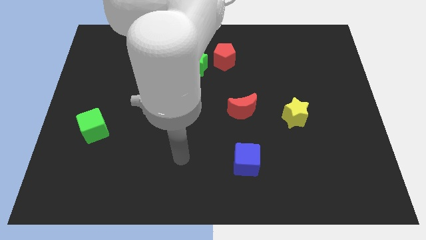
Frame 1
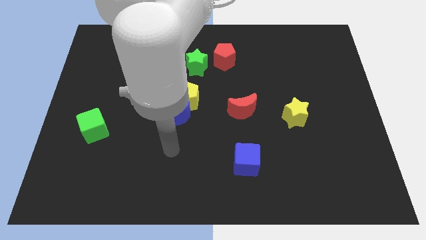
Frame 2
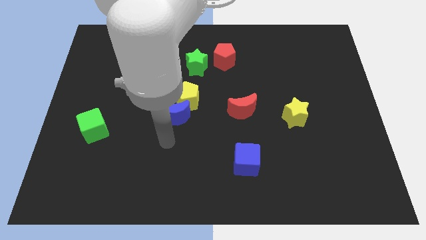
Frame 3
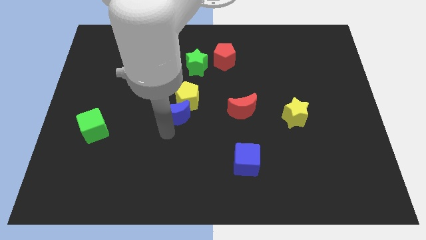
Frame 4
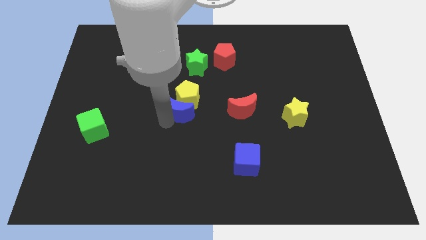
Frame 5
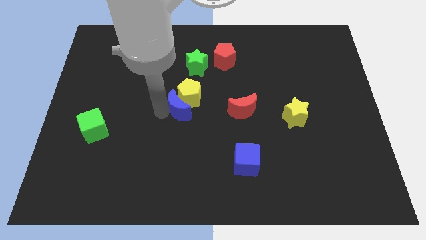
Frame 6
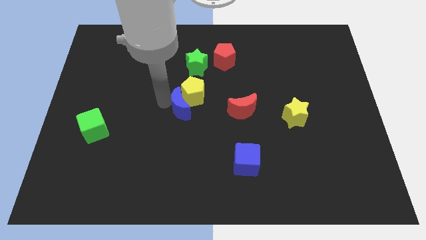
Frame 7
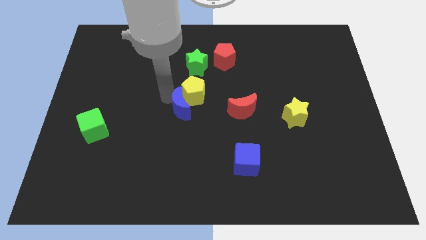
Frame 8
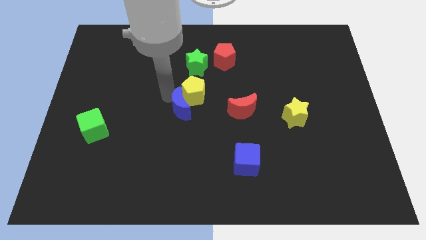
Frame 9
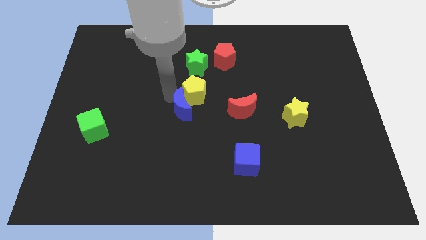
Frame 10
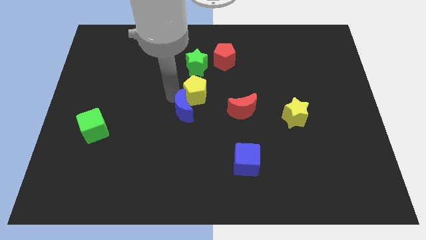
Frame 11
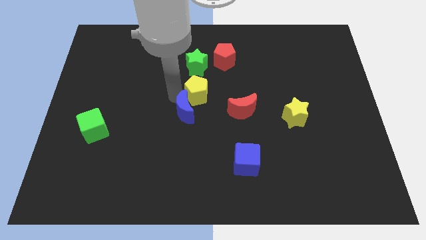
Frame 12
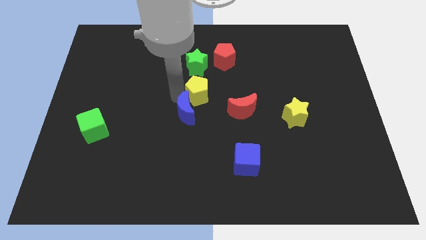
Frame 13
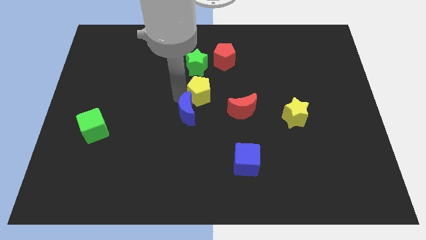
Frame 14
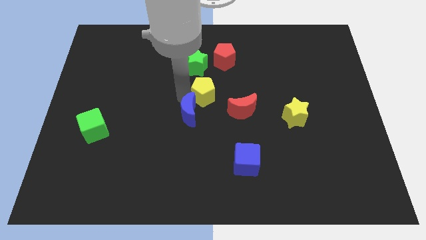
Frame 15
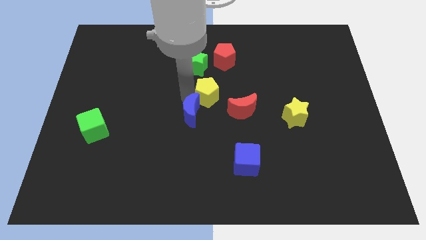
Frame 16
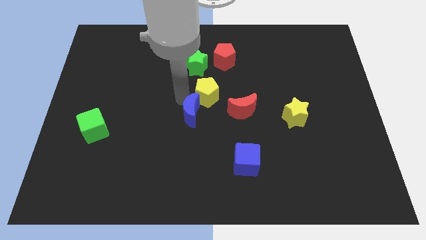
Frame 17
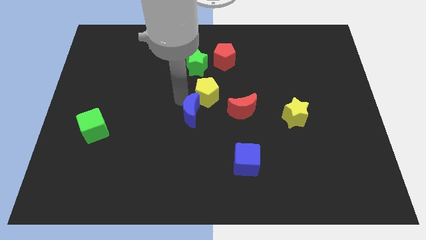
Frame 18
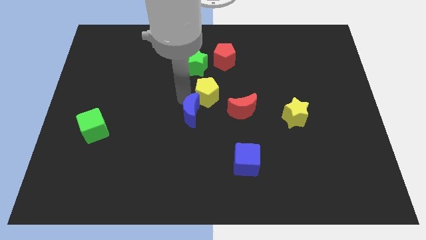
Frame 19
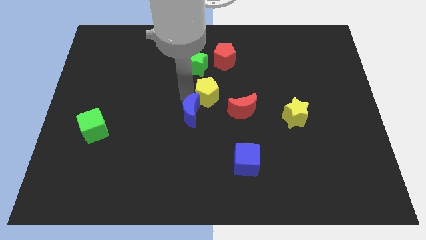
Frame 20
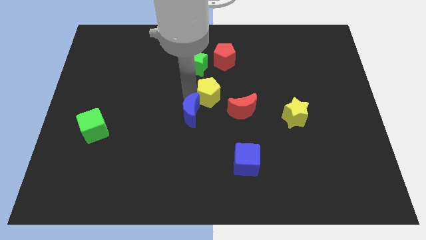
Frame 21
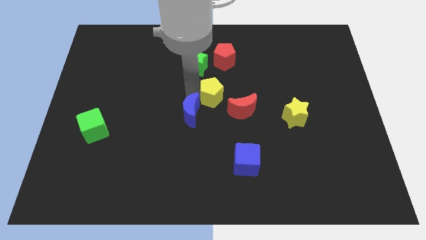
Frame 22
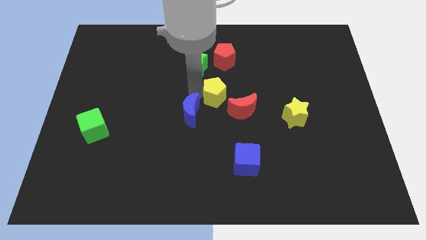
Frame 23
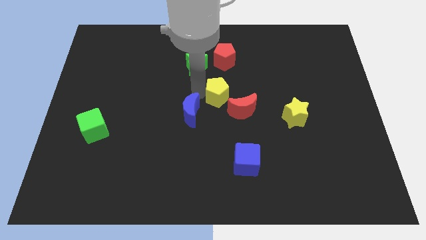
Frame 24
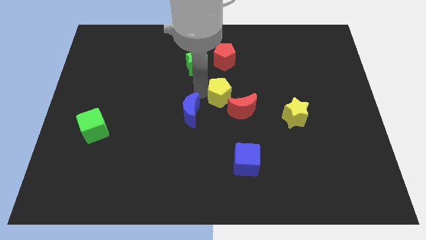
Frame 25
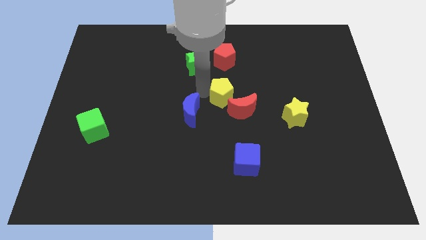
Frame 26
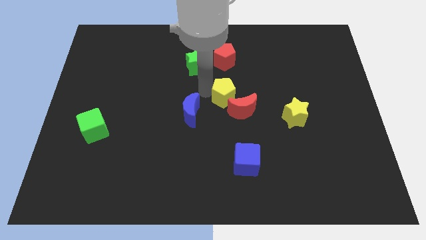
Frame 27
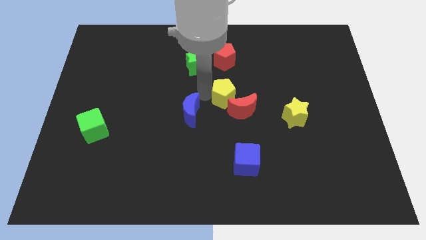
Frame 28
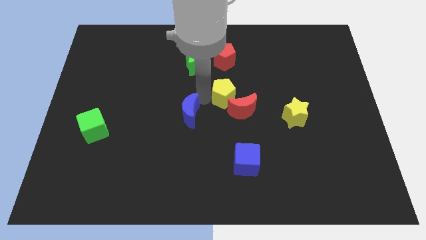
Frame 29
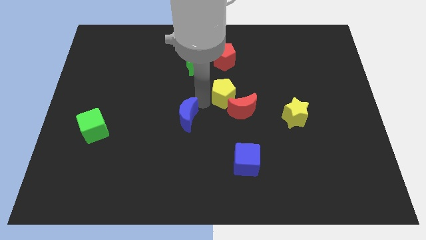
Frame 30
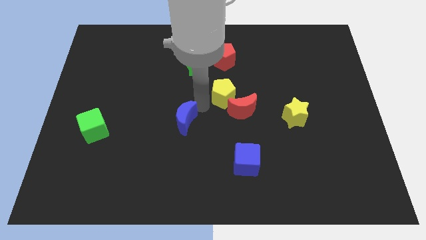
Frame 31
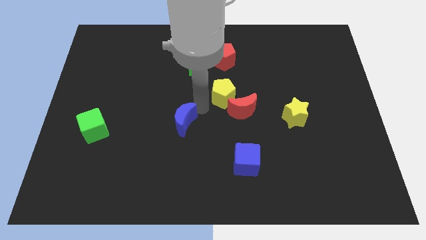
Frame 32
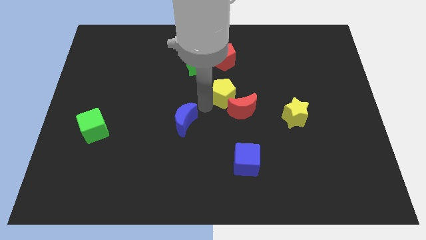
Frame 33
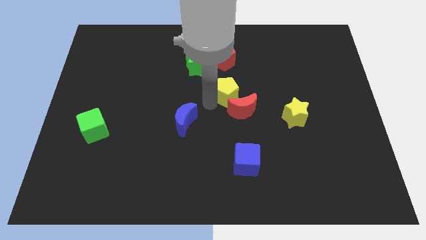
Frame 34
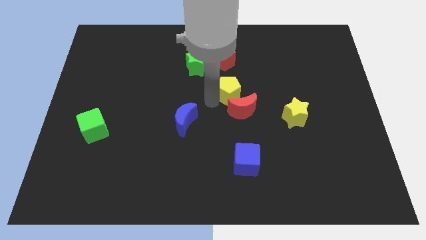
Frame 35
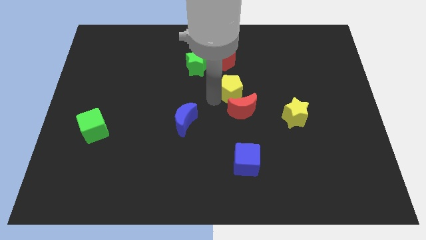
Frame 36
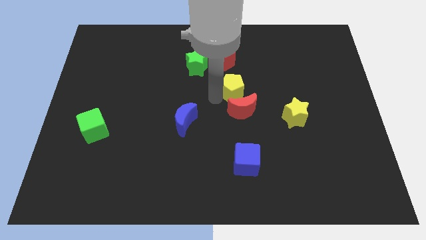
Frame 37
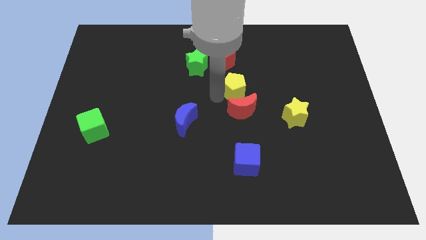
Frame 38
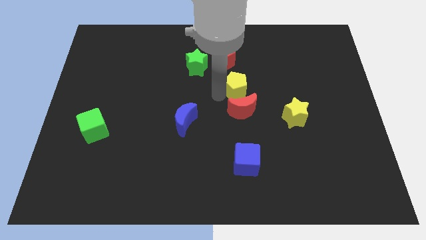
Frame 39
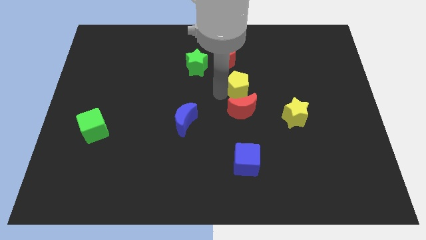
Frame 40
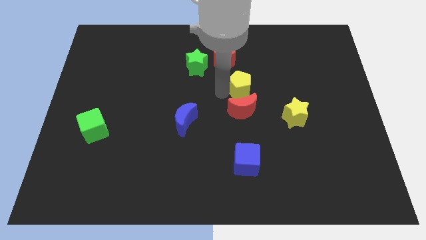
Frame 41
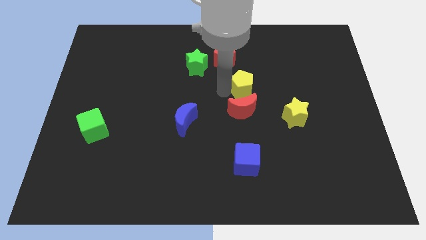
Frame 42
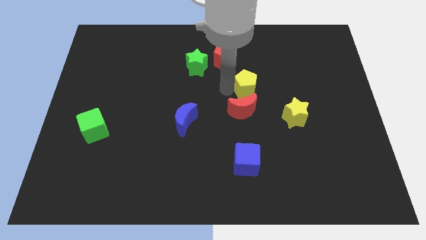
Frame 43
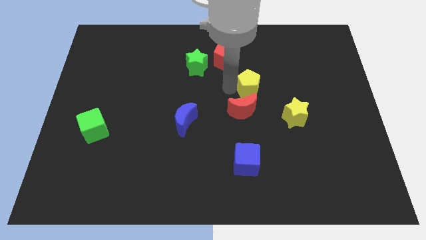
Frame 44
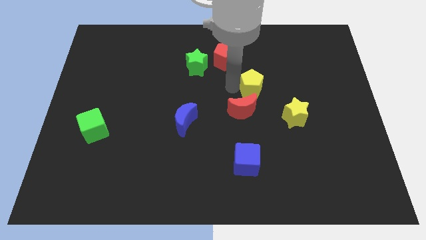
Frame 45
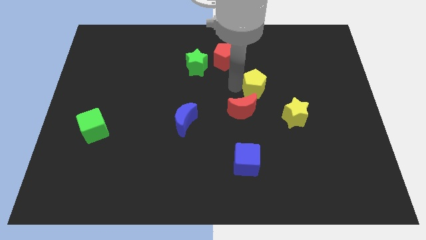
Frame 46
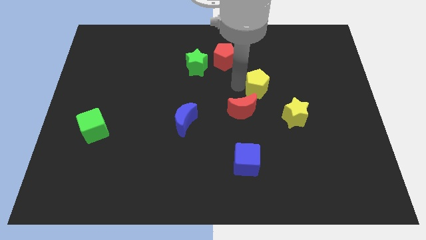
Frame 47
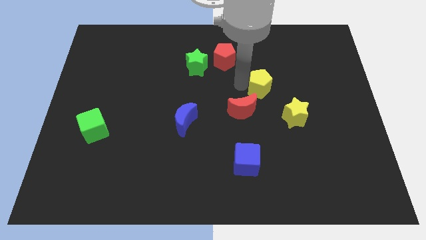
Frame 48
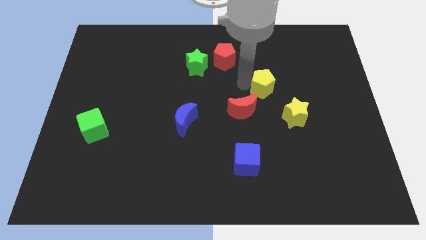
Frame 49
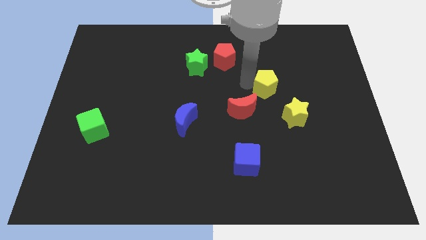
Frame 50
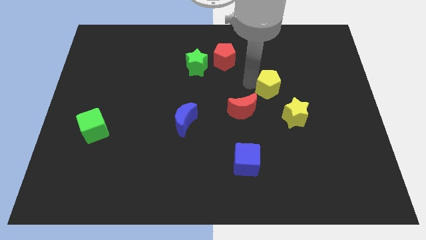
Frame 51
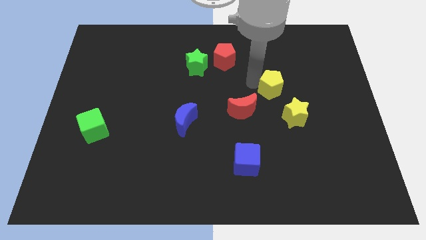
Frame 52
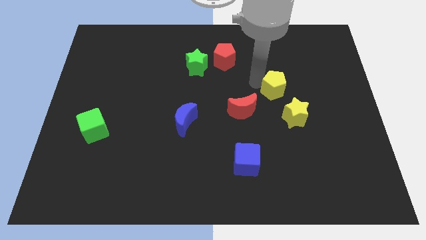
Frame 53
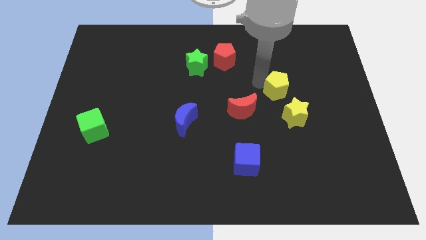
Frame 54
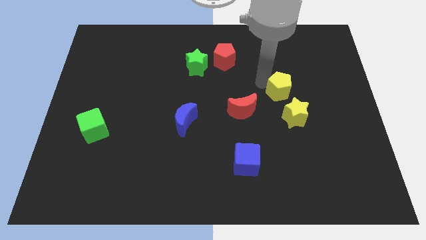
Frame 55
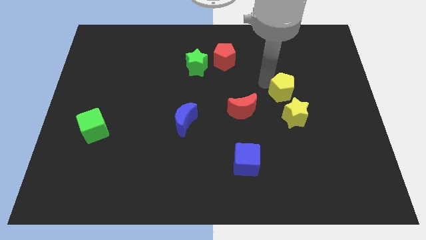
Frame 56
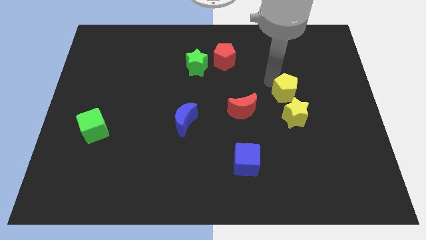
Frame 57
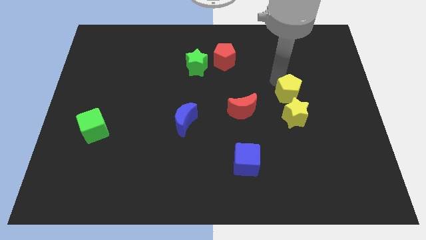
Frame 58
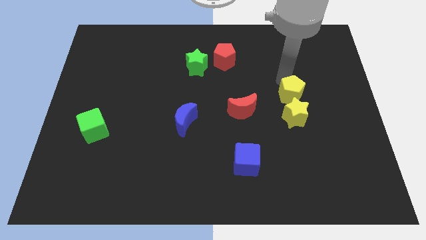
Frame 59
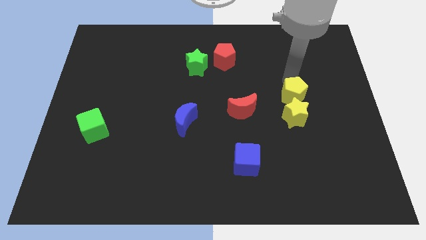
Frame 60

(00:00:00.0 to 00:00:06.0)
slide the yellow pentagon to the yellow star

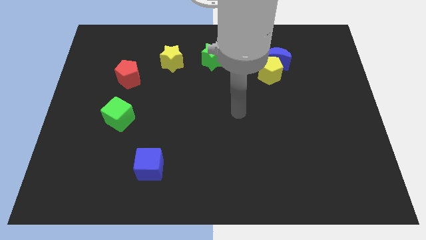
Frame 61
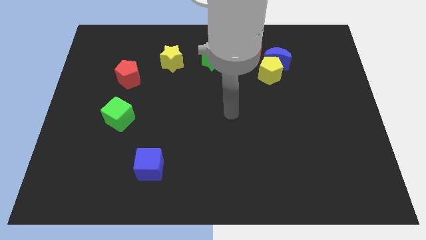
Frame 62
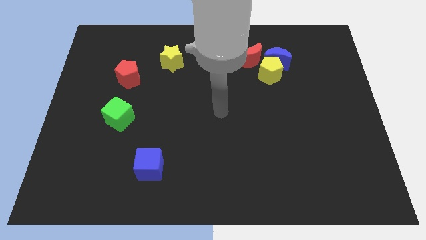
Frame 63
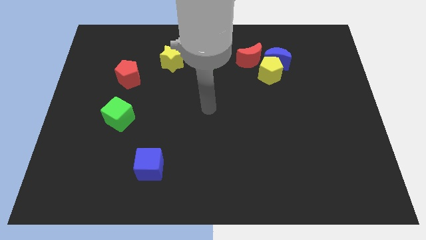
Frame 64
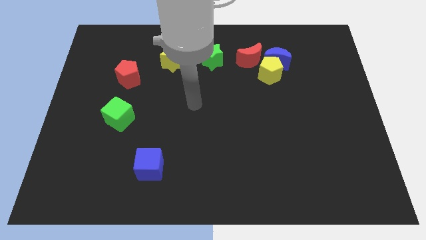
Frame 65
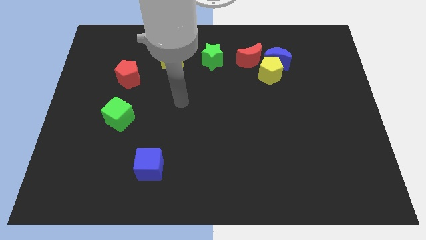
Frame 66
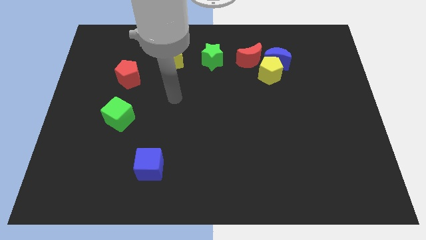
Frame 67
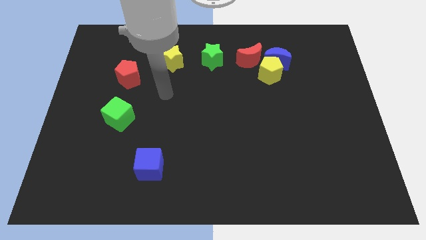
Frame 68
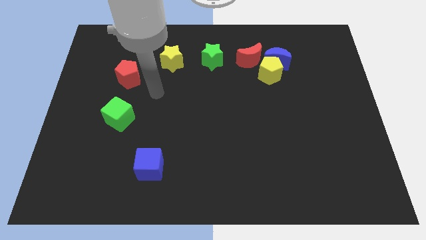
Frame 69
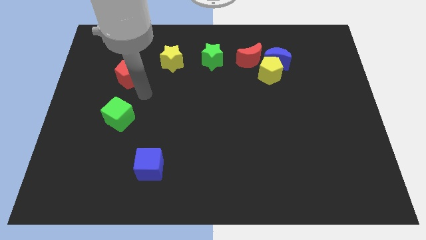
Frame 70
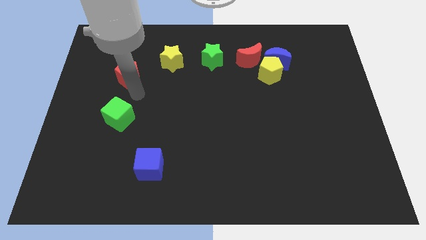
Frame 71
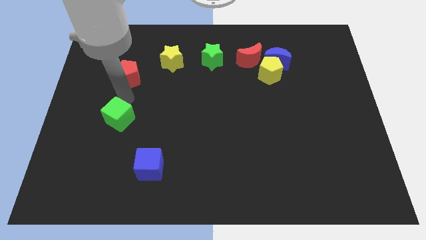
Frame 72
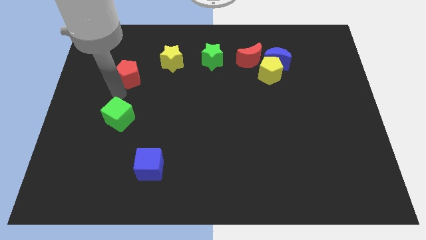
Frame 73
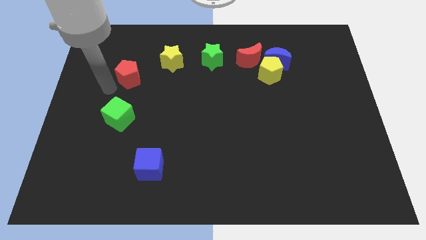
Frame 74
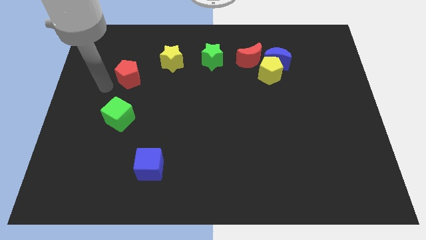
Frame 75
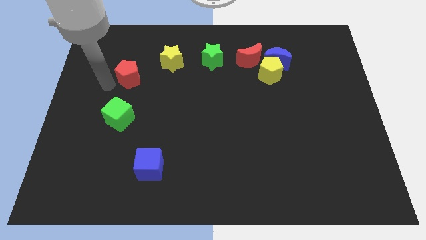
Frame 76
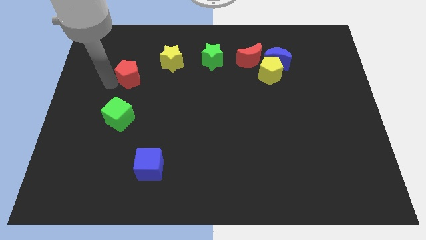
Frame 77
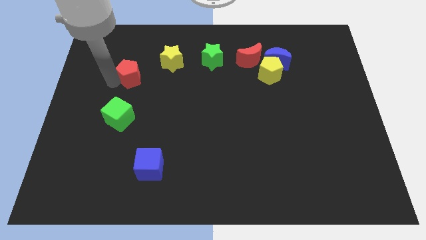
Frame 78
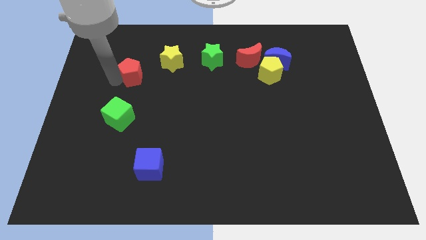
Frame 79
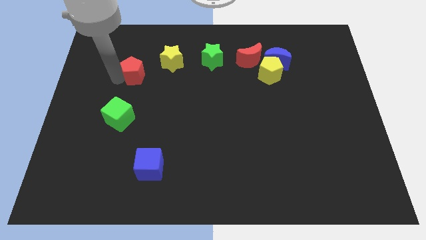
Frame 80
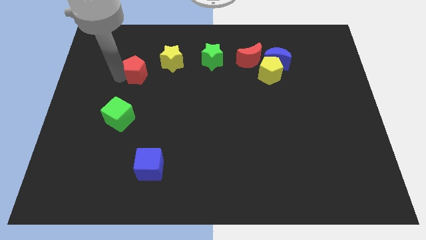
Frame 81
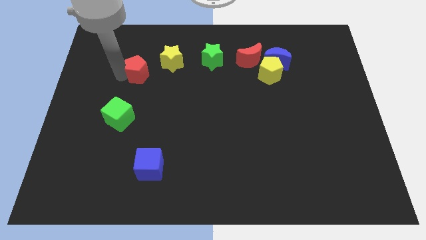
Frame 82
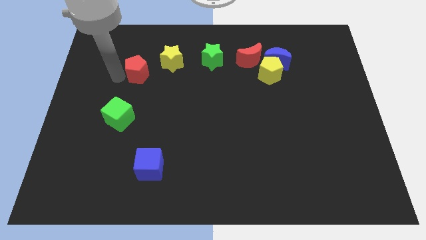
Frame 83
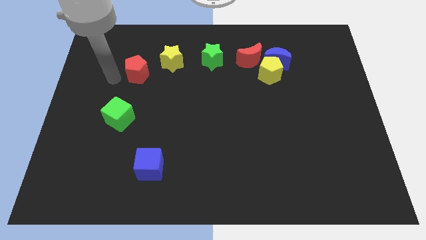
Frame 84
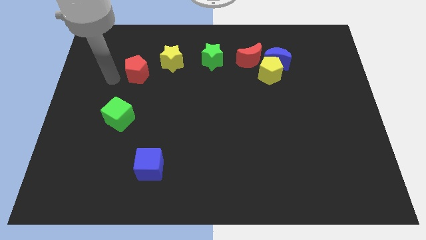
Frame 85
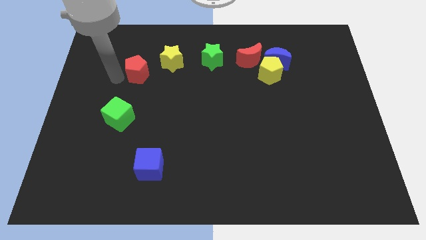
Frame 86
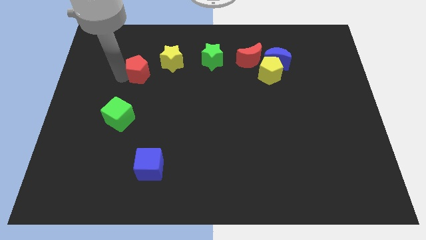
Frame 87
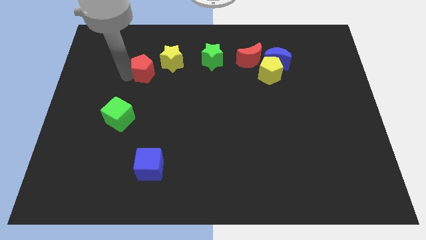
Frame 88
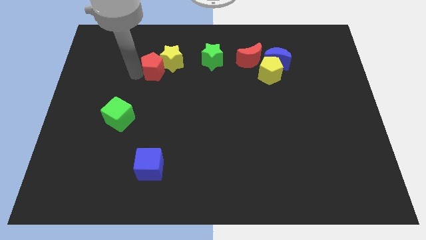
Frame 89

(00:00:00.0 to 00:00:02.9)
move the red pentagon next to the yellow star
